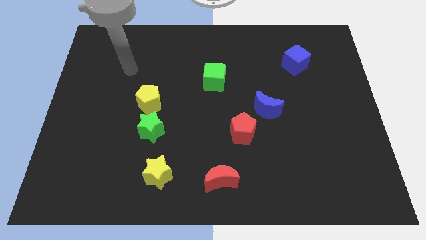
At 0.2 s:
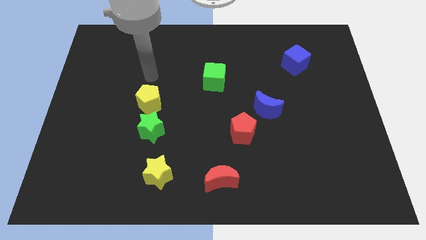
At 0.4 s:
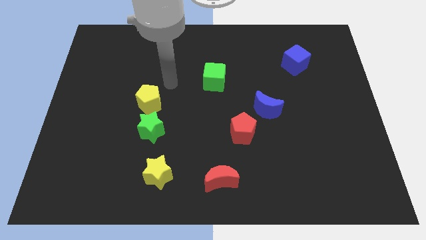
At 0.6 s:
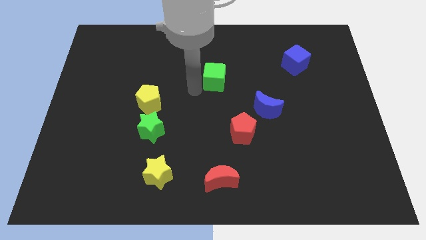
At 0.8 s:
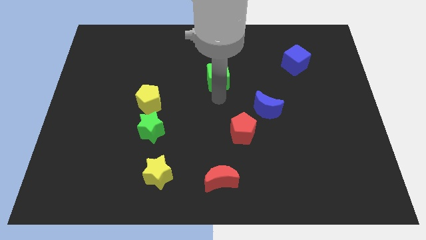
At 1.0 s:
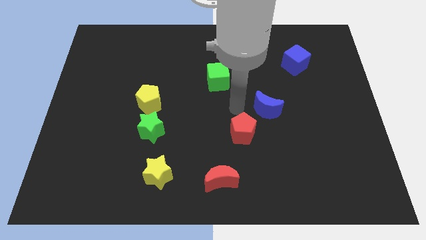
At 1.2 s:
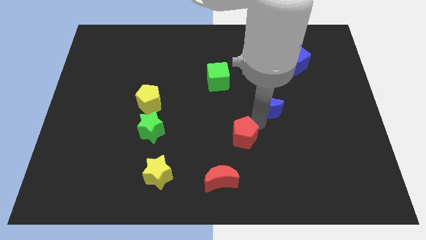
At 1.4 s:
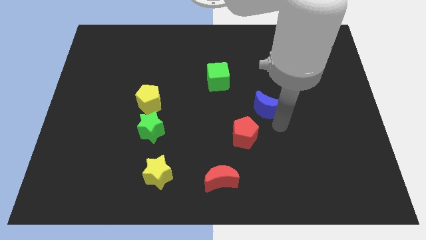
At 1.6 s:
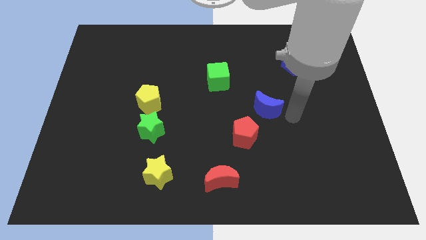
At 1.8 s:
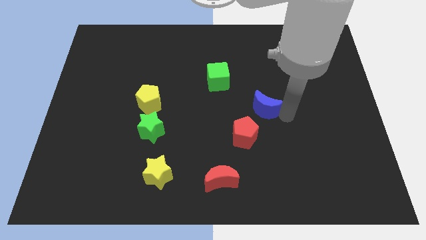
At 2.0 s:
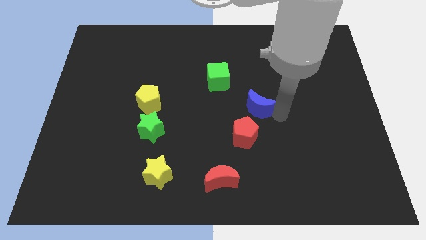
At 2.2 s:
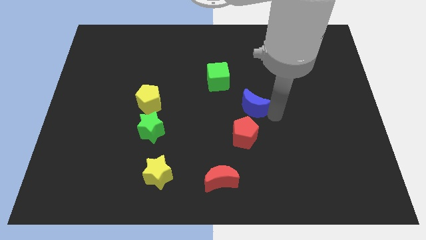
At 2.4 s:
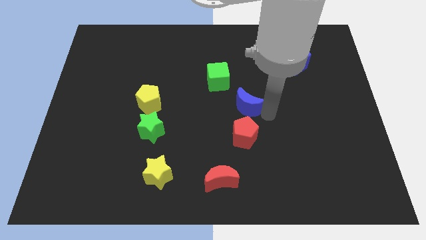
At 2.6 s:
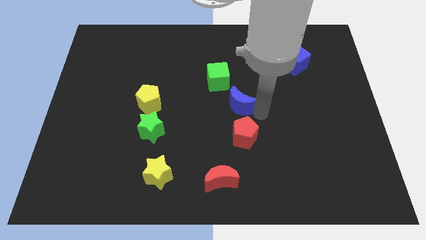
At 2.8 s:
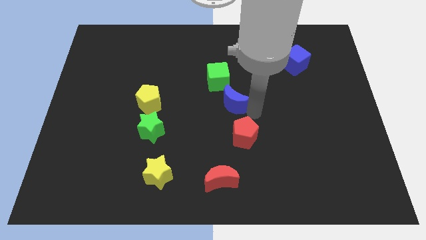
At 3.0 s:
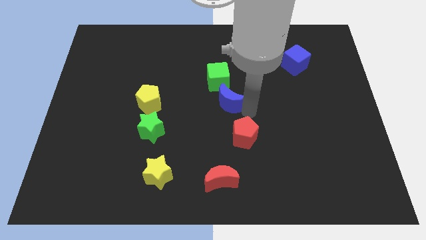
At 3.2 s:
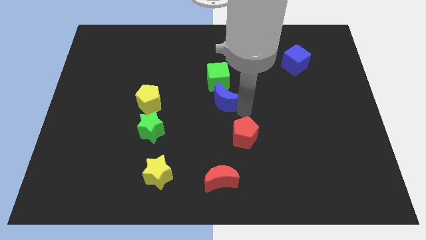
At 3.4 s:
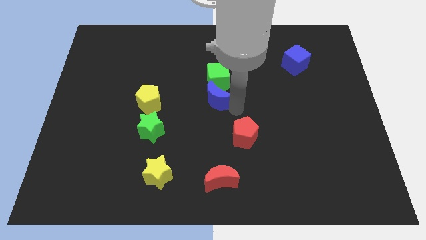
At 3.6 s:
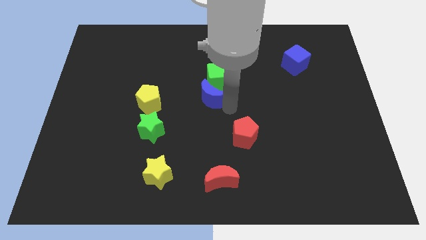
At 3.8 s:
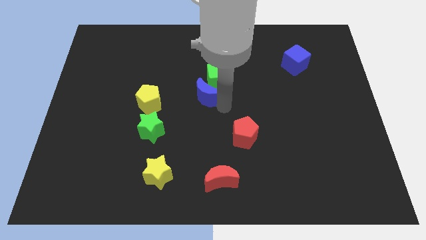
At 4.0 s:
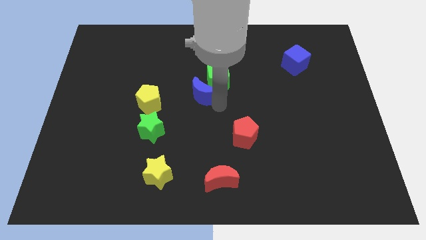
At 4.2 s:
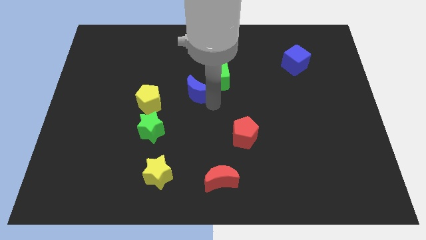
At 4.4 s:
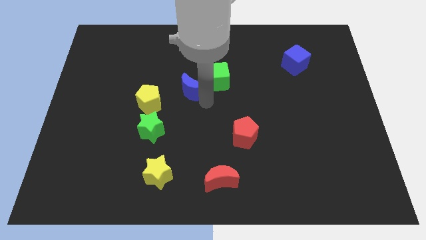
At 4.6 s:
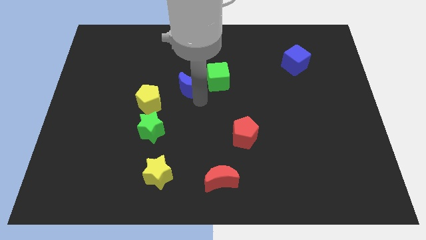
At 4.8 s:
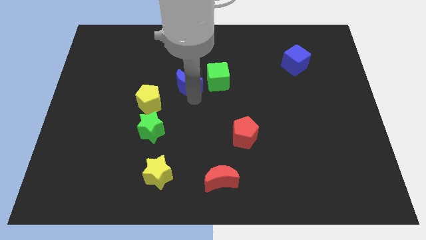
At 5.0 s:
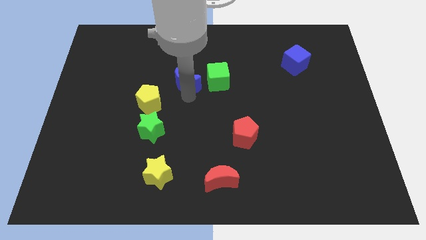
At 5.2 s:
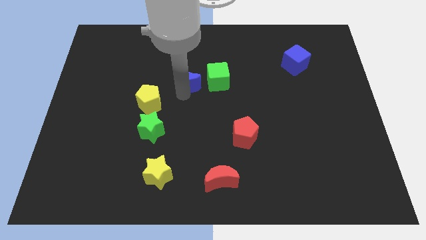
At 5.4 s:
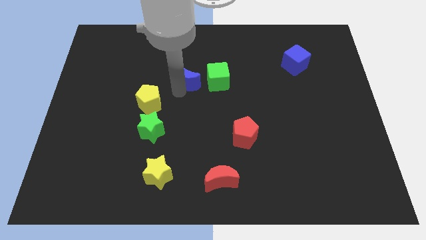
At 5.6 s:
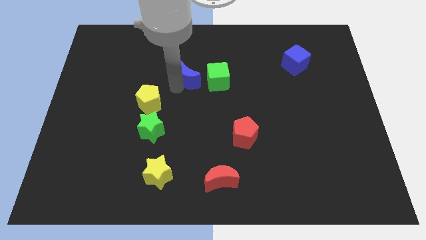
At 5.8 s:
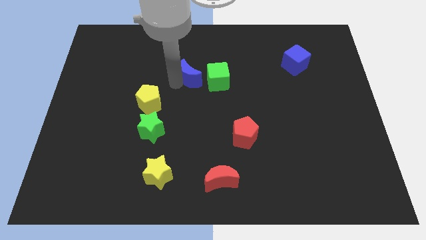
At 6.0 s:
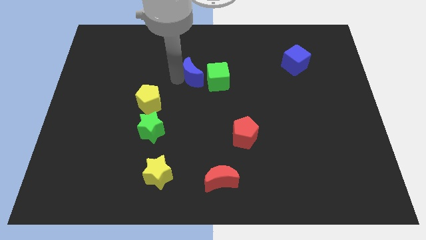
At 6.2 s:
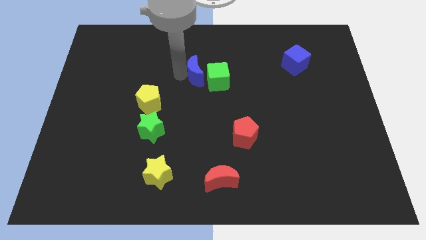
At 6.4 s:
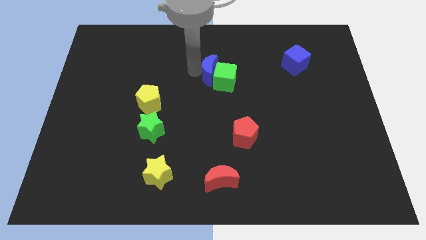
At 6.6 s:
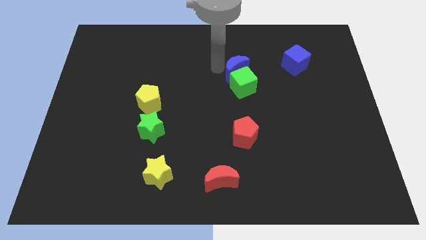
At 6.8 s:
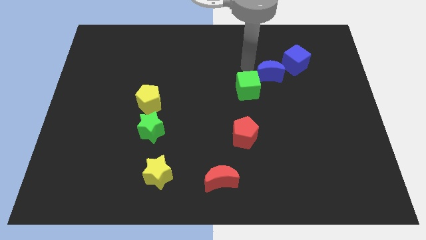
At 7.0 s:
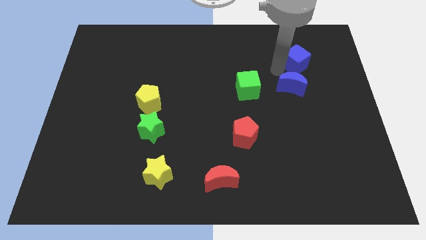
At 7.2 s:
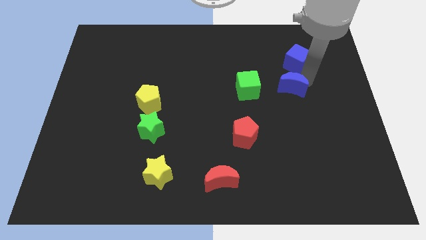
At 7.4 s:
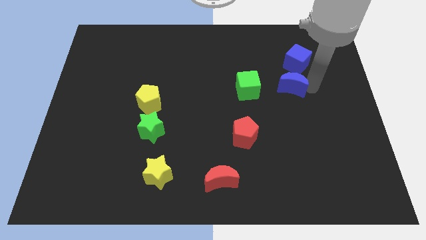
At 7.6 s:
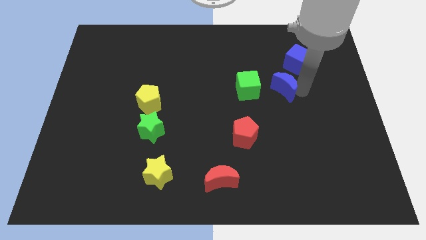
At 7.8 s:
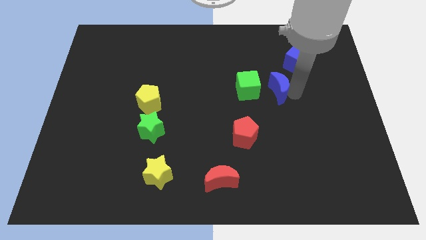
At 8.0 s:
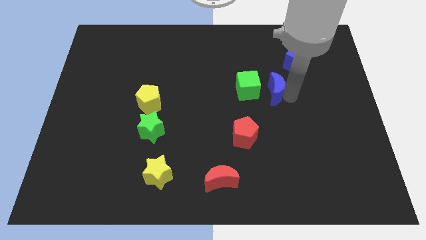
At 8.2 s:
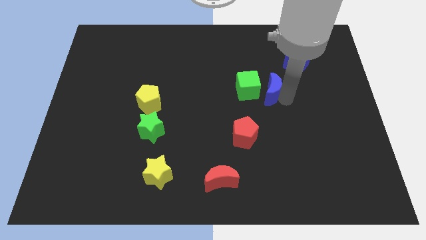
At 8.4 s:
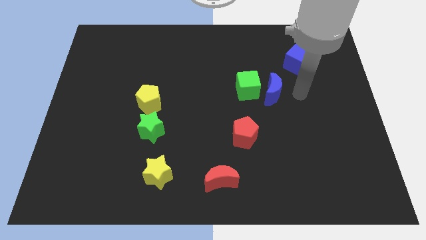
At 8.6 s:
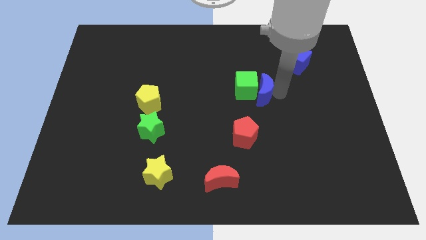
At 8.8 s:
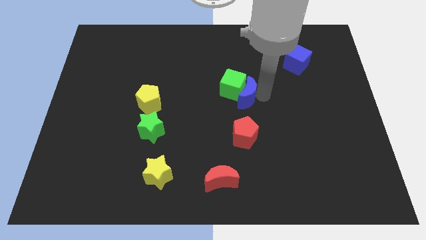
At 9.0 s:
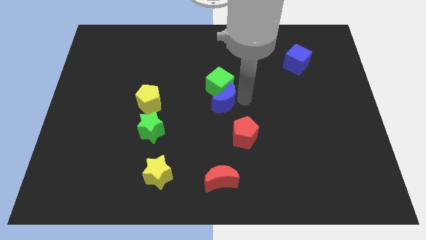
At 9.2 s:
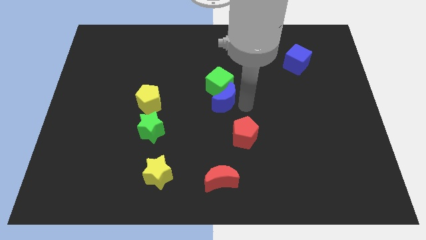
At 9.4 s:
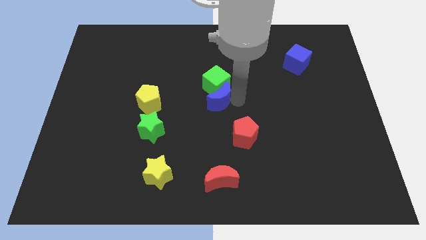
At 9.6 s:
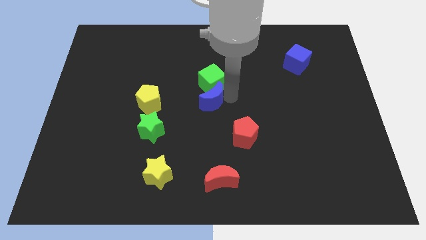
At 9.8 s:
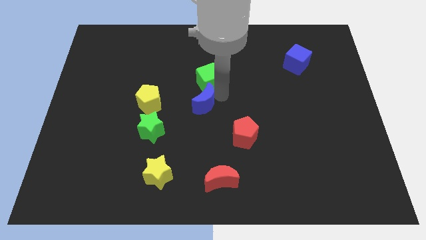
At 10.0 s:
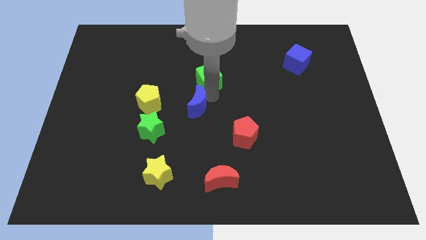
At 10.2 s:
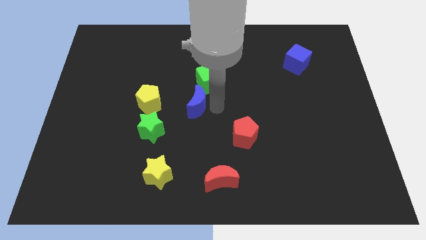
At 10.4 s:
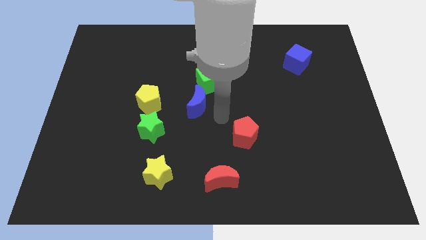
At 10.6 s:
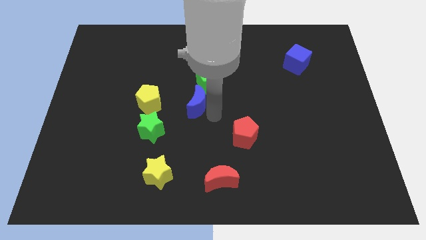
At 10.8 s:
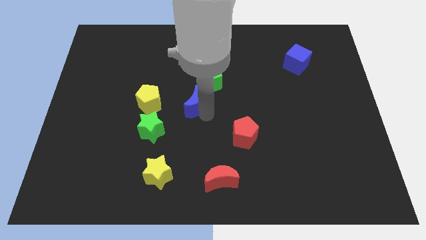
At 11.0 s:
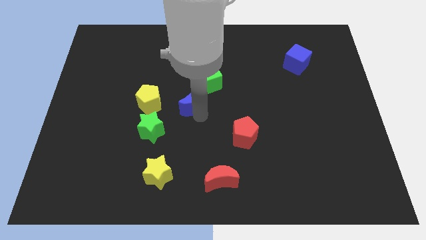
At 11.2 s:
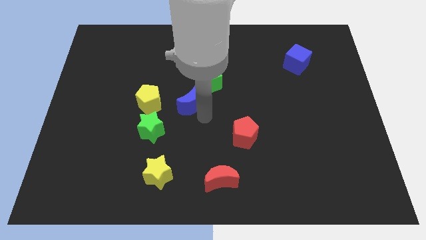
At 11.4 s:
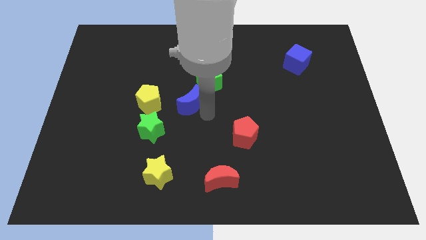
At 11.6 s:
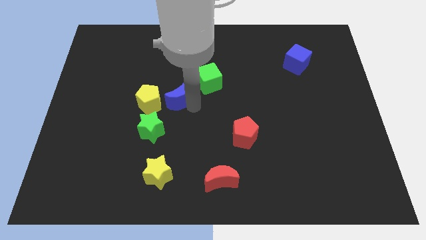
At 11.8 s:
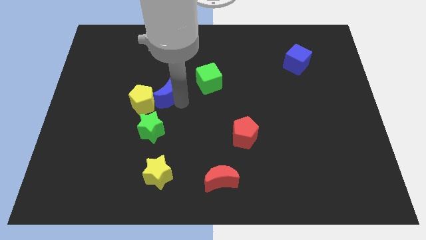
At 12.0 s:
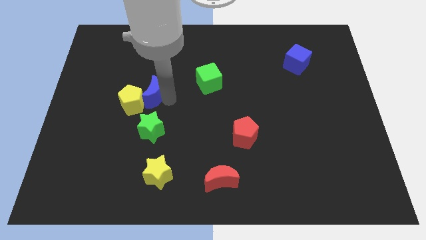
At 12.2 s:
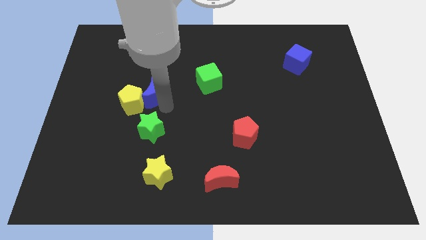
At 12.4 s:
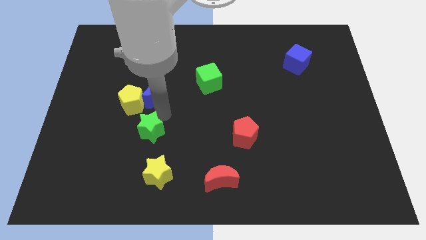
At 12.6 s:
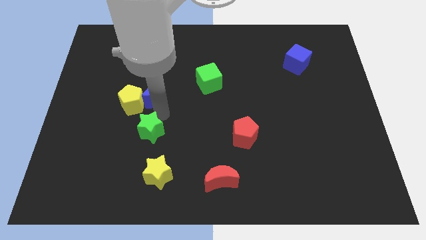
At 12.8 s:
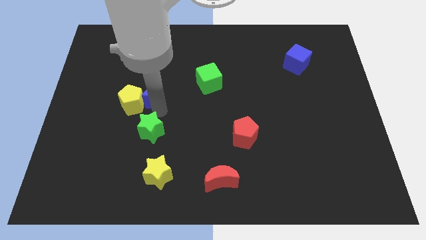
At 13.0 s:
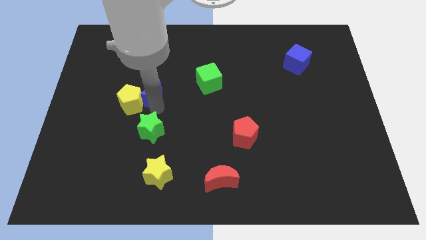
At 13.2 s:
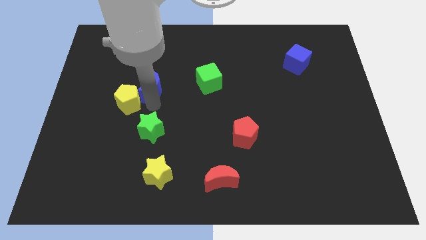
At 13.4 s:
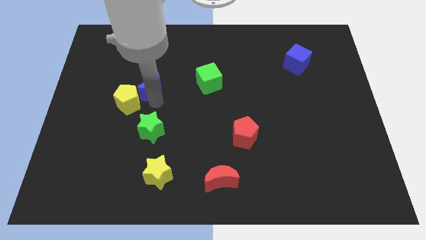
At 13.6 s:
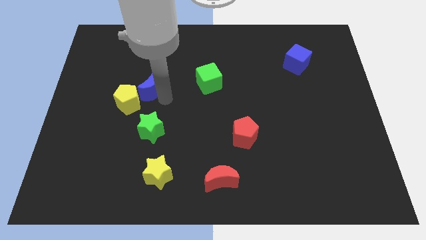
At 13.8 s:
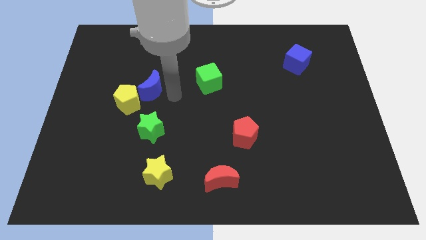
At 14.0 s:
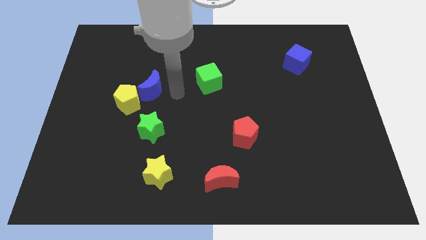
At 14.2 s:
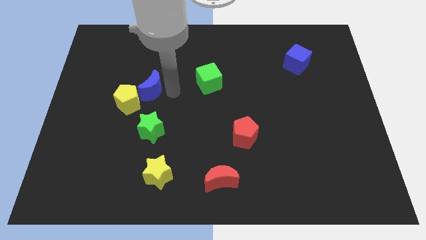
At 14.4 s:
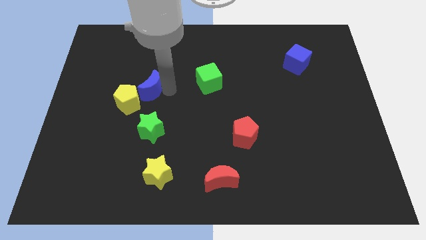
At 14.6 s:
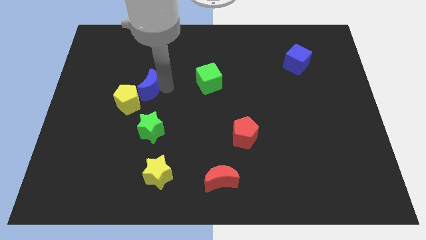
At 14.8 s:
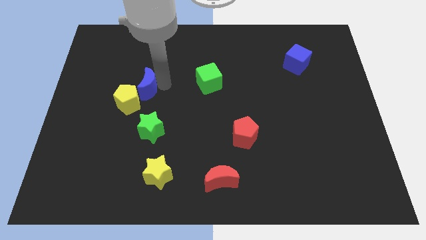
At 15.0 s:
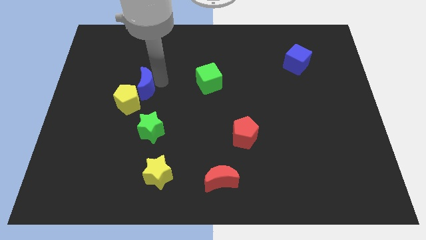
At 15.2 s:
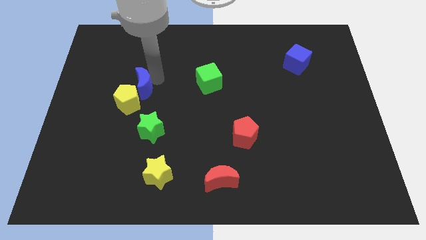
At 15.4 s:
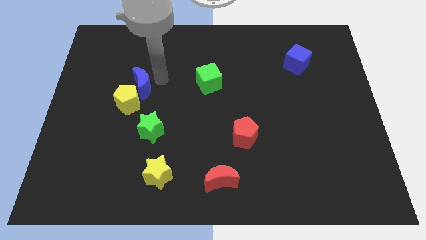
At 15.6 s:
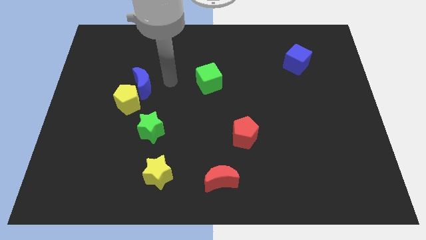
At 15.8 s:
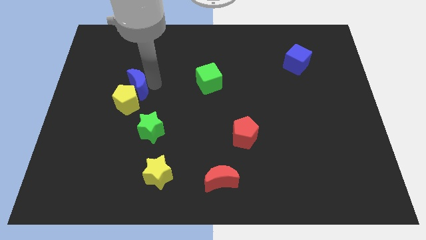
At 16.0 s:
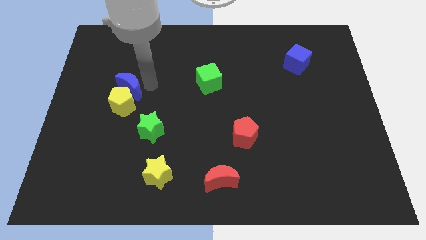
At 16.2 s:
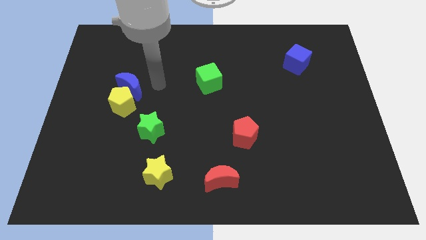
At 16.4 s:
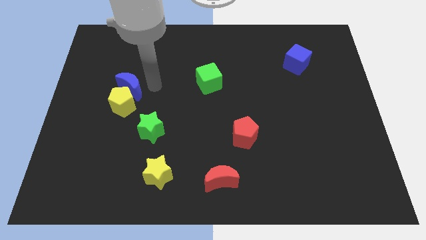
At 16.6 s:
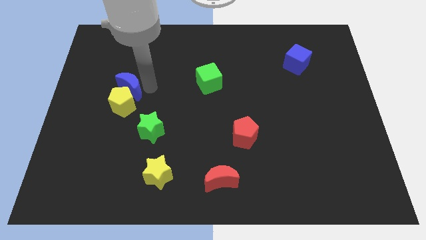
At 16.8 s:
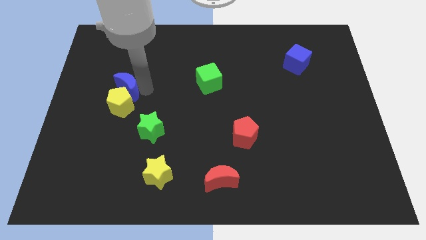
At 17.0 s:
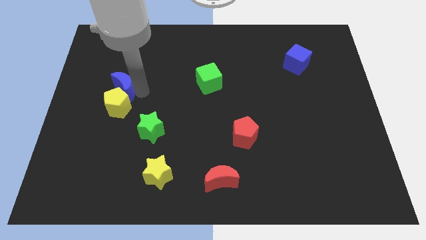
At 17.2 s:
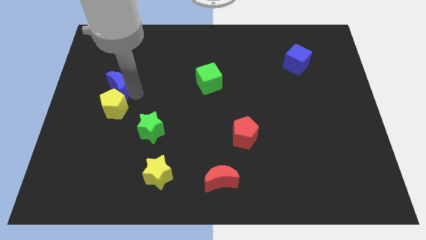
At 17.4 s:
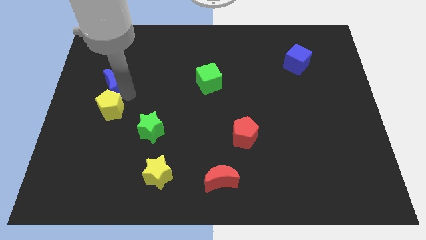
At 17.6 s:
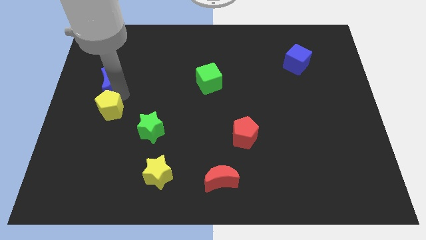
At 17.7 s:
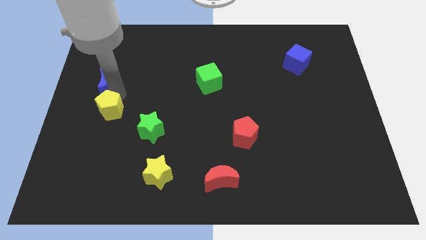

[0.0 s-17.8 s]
put the blue moon to the center left
